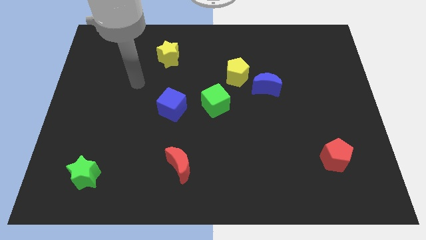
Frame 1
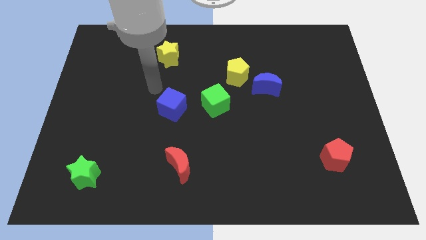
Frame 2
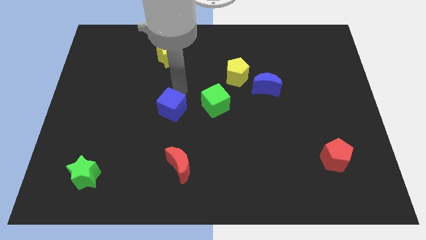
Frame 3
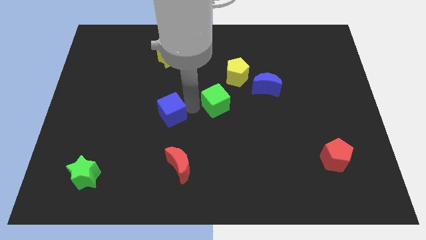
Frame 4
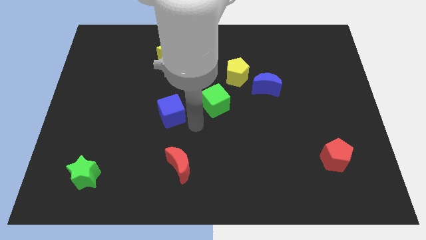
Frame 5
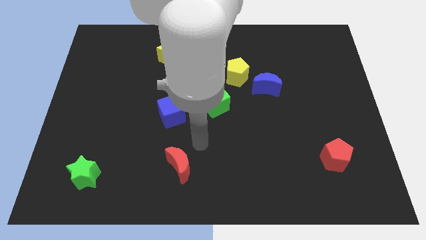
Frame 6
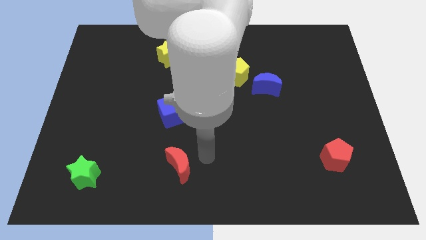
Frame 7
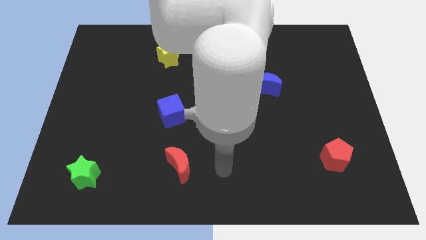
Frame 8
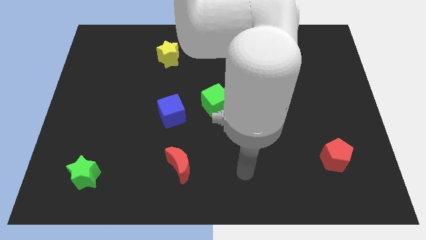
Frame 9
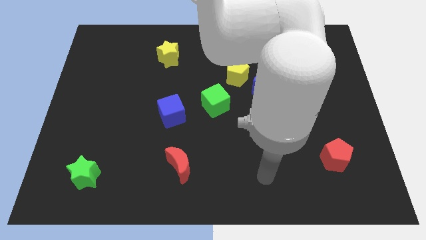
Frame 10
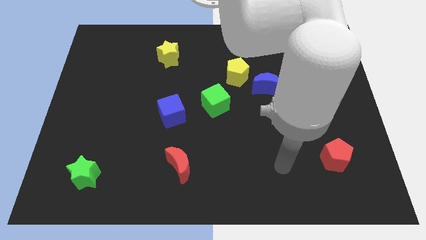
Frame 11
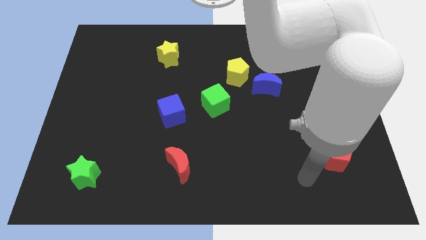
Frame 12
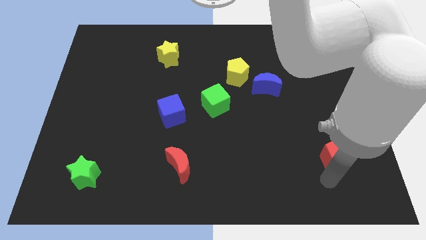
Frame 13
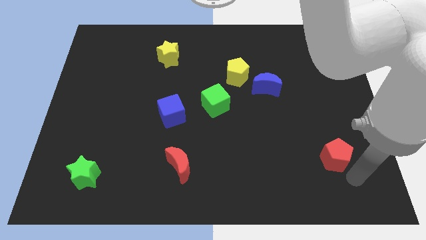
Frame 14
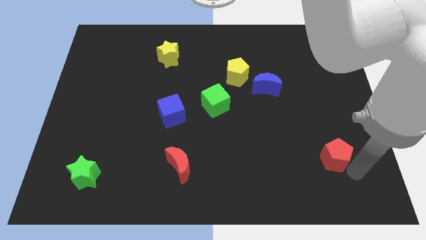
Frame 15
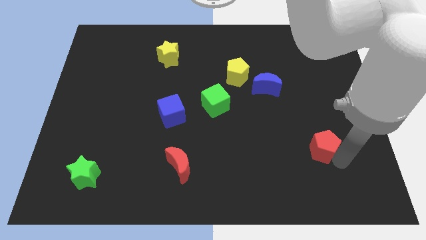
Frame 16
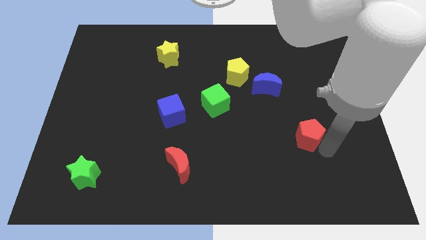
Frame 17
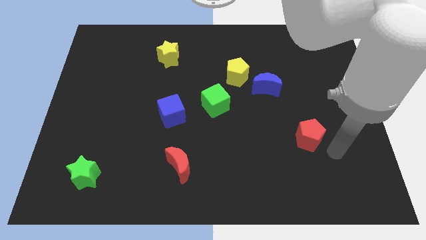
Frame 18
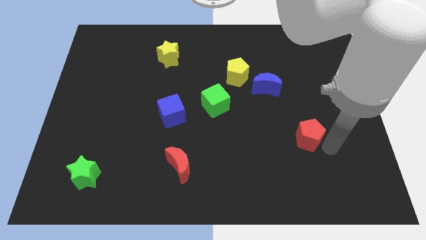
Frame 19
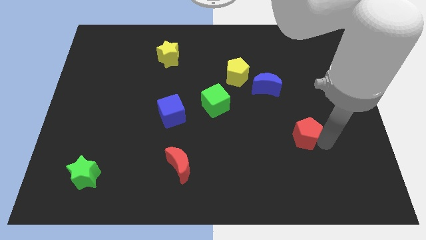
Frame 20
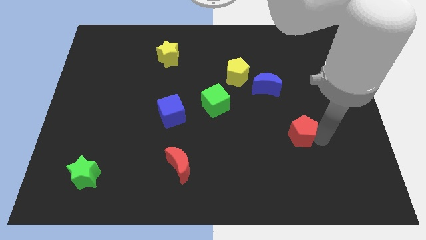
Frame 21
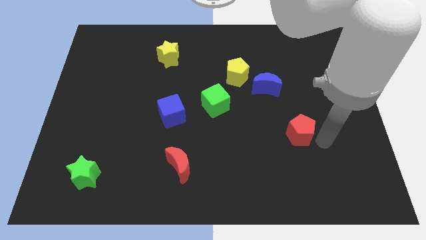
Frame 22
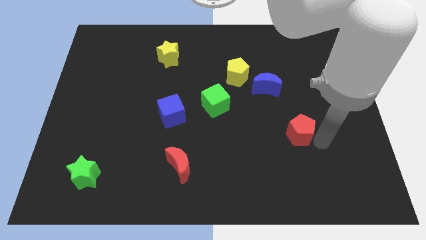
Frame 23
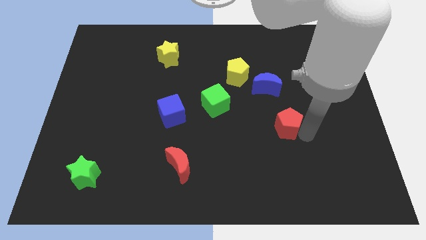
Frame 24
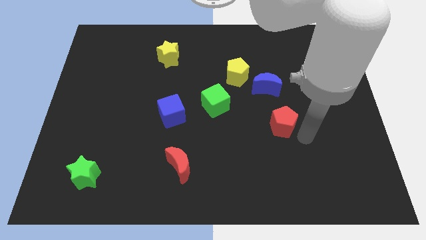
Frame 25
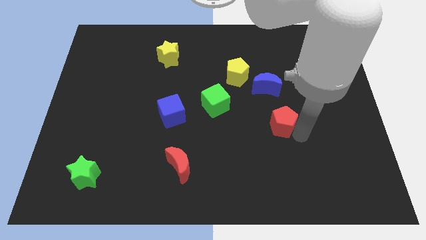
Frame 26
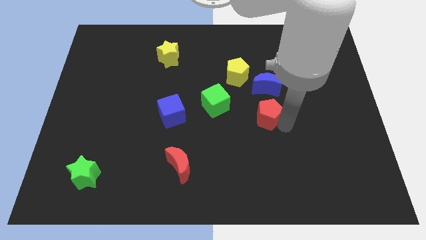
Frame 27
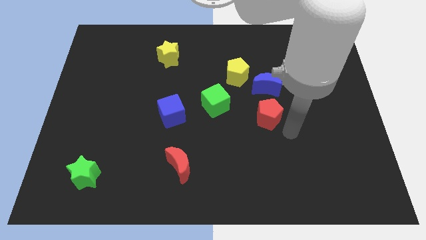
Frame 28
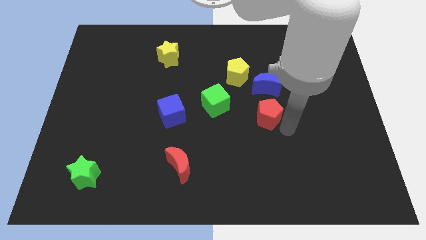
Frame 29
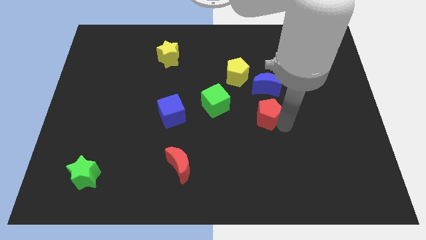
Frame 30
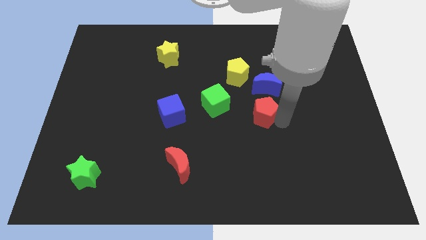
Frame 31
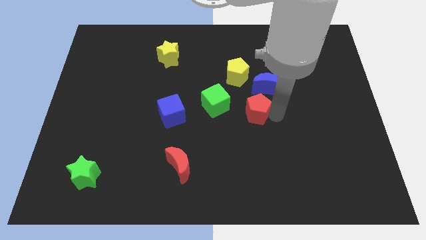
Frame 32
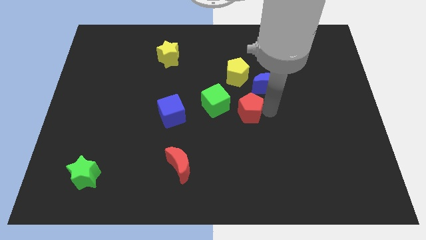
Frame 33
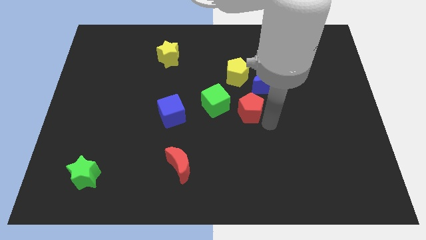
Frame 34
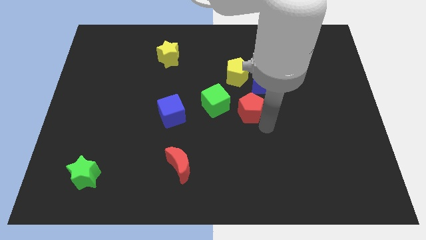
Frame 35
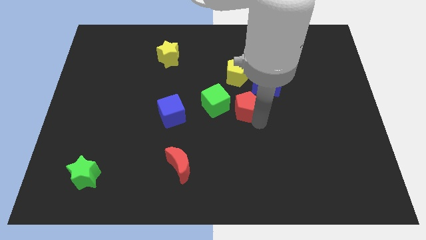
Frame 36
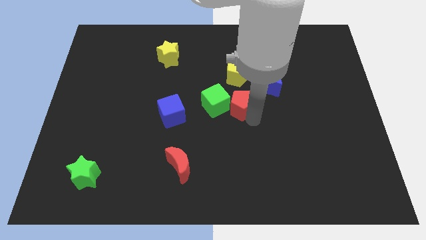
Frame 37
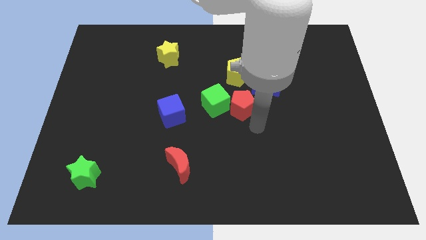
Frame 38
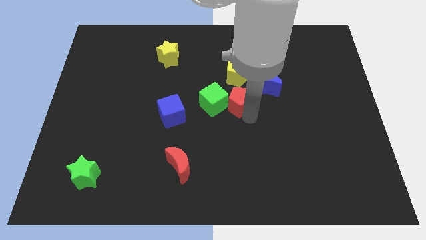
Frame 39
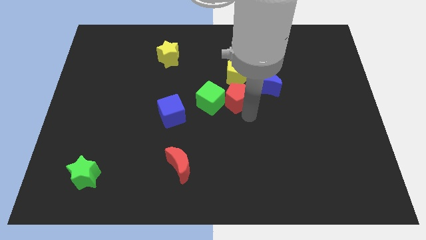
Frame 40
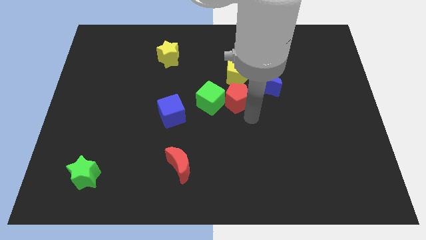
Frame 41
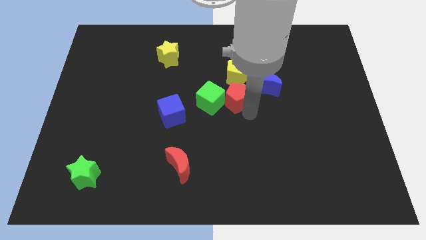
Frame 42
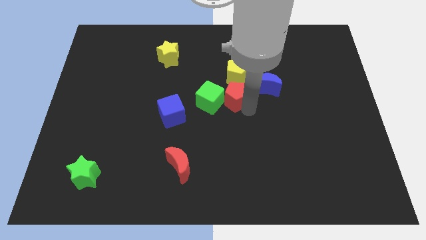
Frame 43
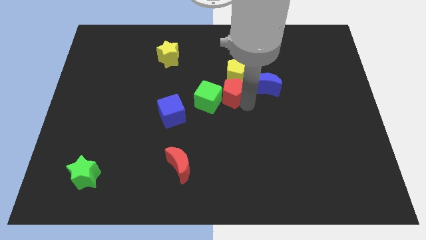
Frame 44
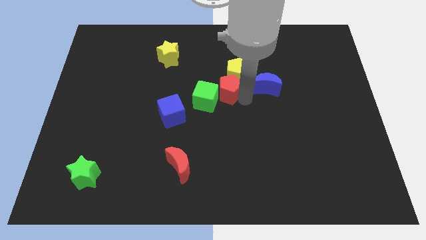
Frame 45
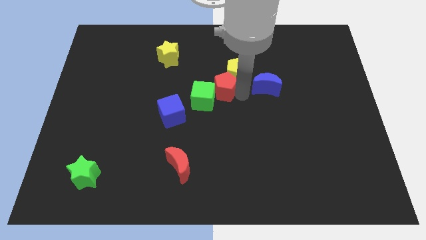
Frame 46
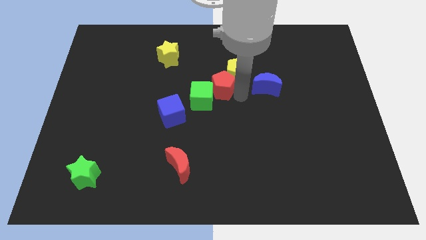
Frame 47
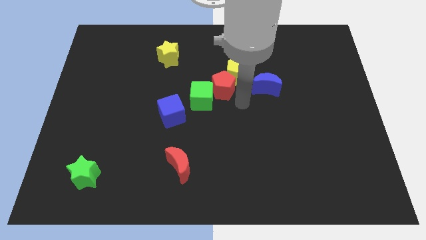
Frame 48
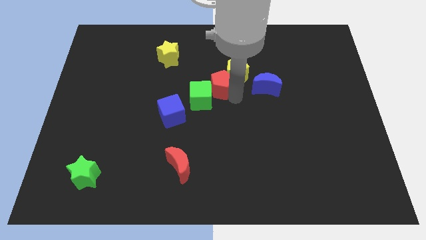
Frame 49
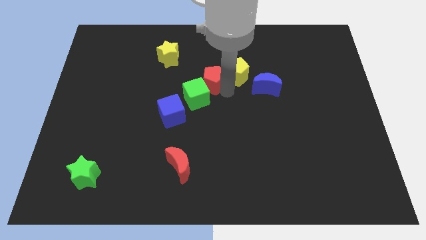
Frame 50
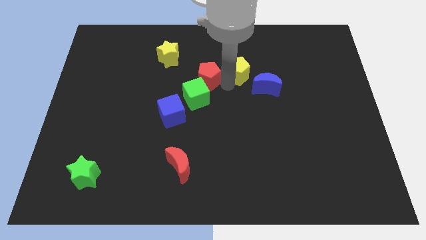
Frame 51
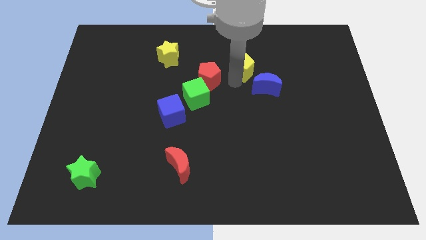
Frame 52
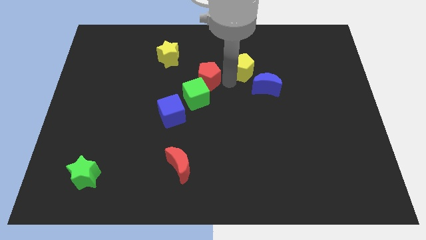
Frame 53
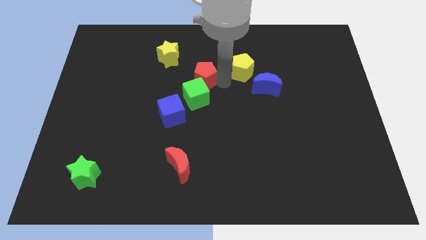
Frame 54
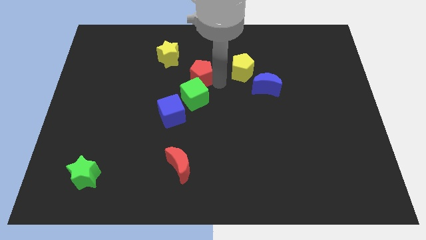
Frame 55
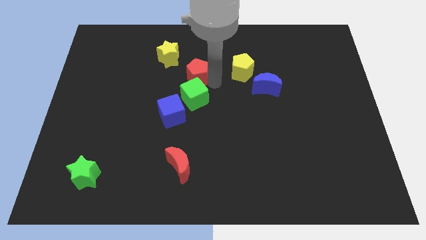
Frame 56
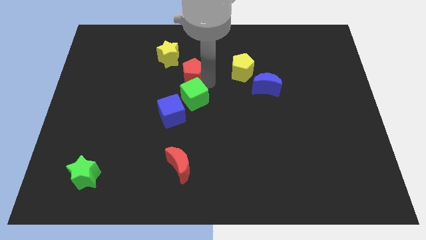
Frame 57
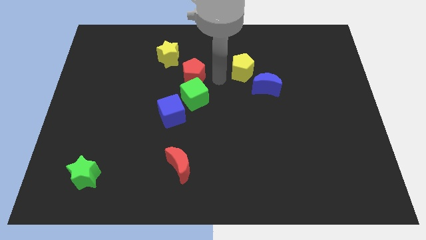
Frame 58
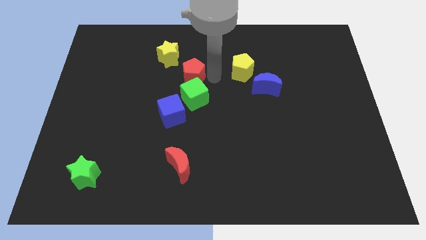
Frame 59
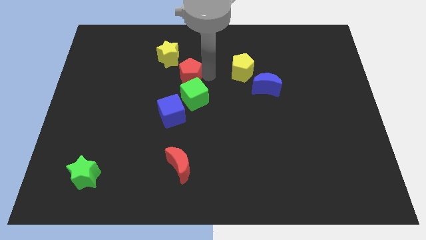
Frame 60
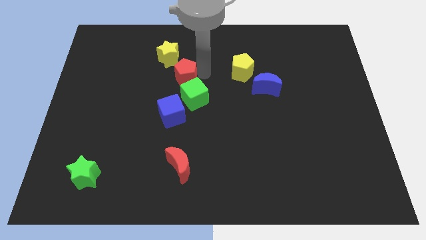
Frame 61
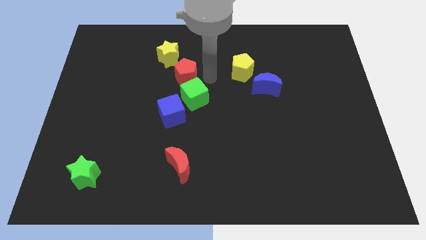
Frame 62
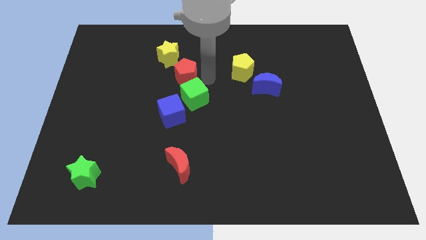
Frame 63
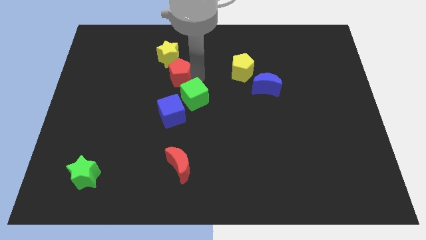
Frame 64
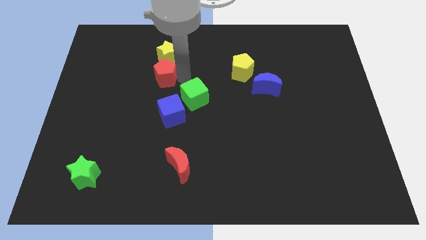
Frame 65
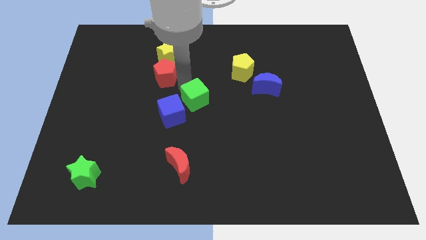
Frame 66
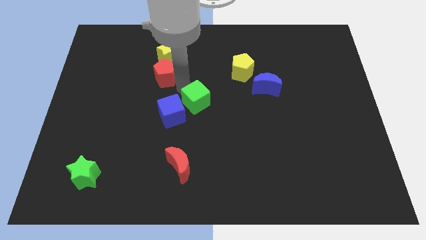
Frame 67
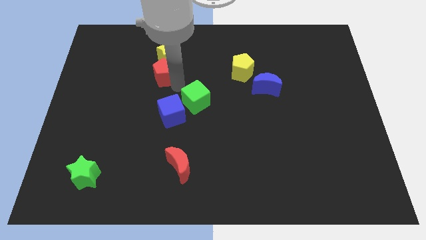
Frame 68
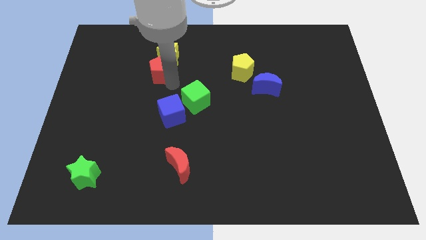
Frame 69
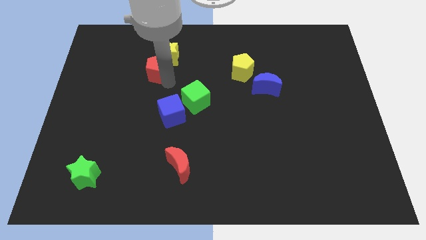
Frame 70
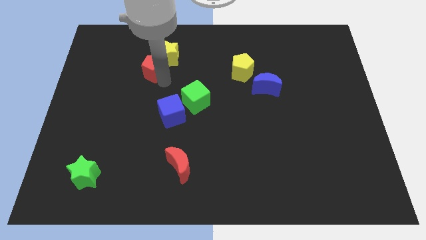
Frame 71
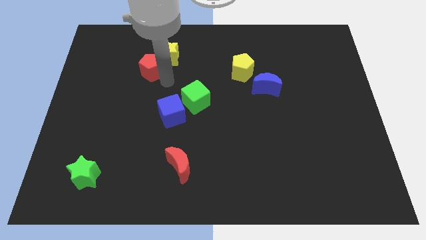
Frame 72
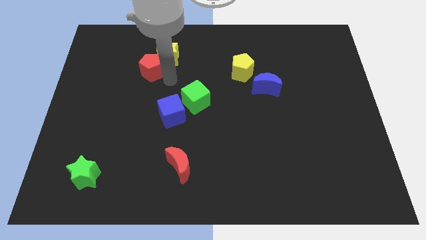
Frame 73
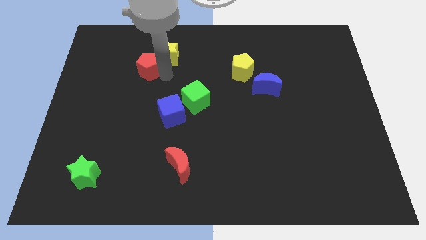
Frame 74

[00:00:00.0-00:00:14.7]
put the red pentagon to the left side of the yellow star
